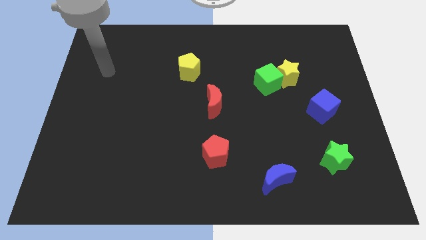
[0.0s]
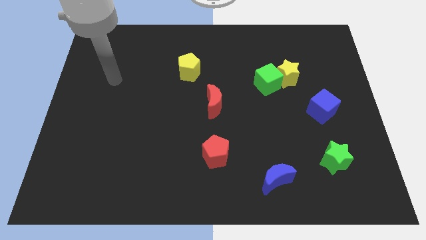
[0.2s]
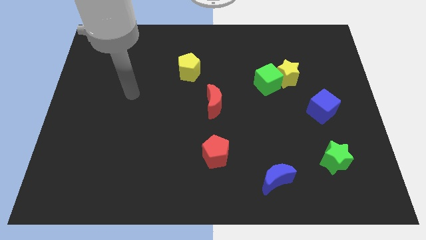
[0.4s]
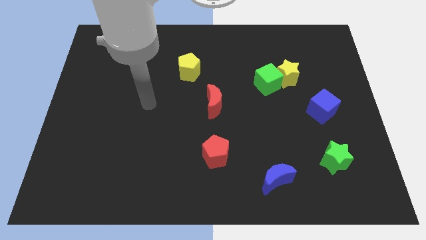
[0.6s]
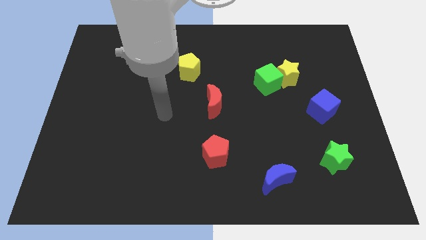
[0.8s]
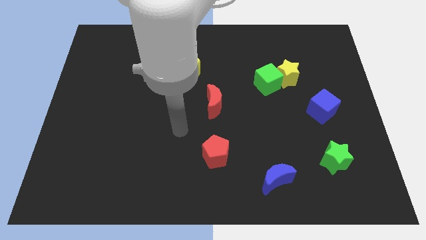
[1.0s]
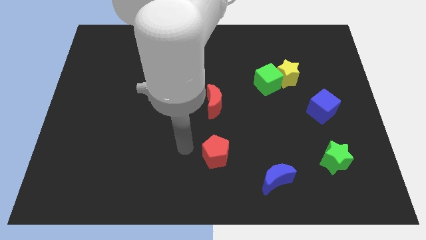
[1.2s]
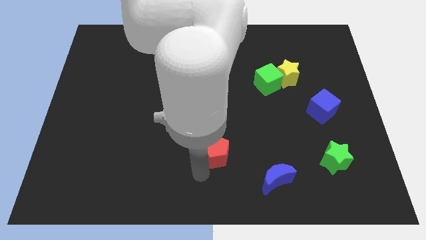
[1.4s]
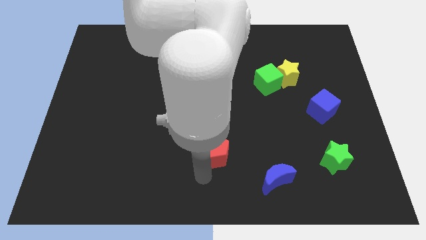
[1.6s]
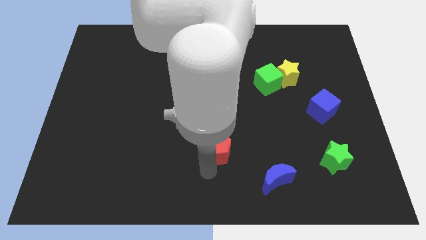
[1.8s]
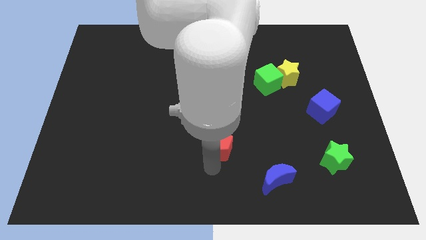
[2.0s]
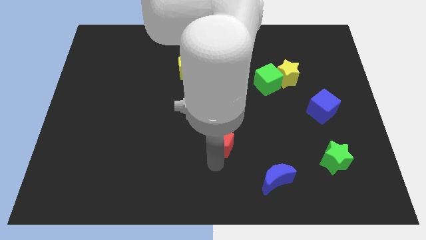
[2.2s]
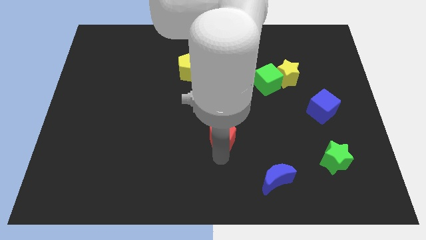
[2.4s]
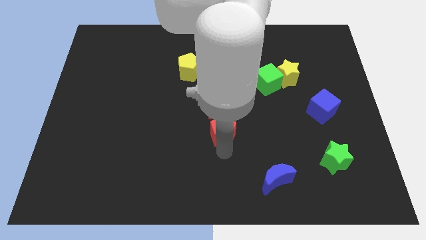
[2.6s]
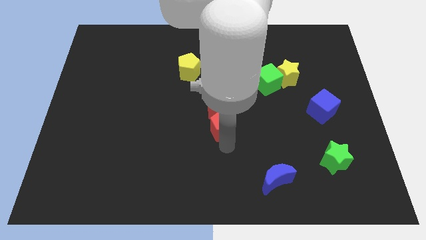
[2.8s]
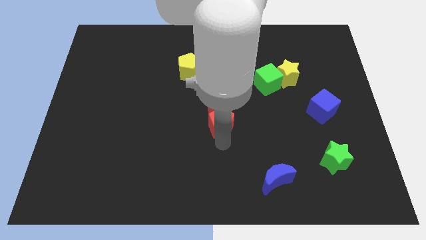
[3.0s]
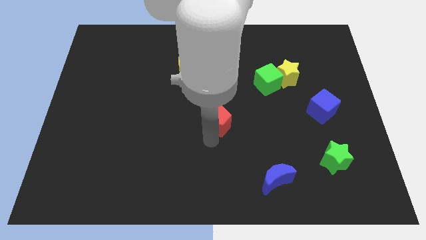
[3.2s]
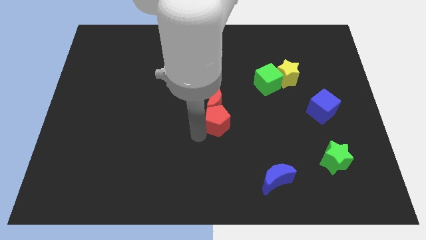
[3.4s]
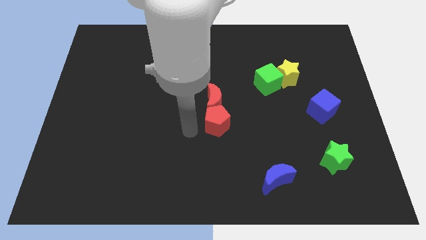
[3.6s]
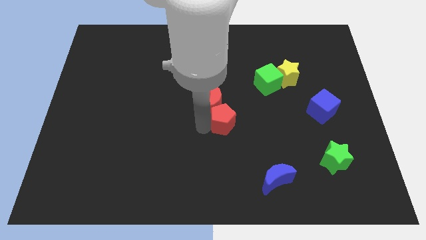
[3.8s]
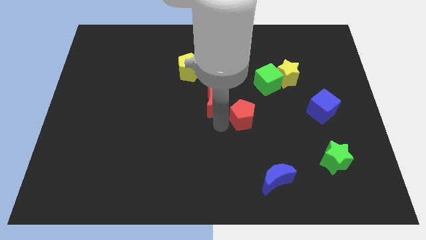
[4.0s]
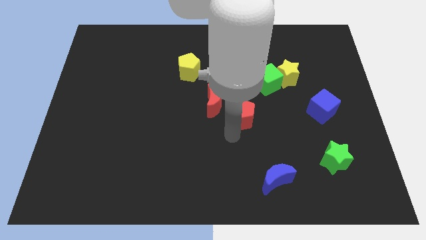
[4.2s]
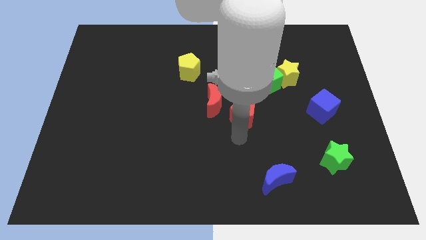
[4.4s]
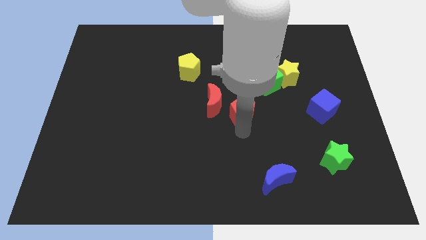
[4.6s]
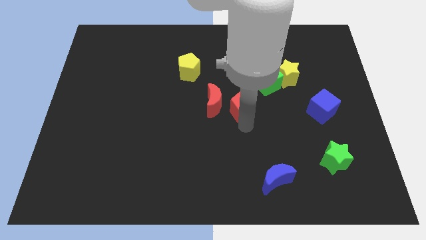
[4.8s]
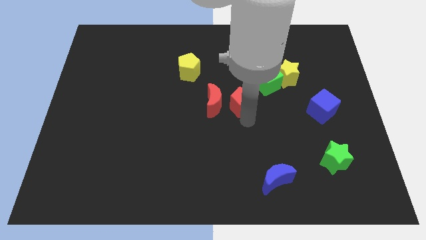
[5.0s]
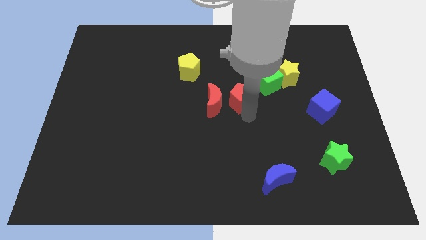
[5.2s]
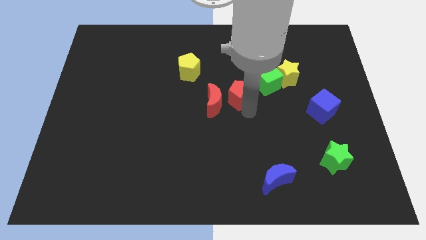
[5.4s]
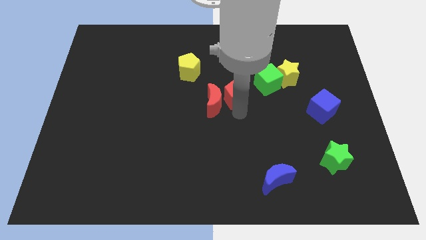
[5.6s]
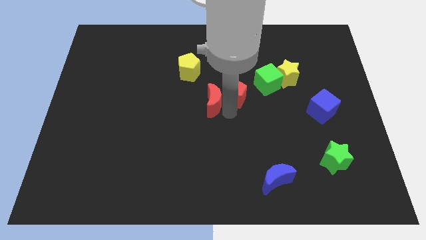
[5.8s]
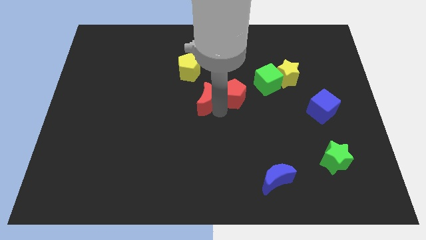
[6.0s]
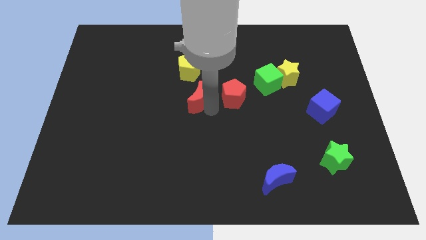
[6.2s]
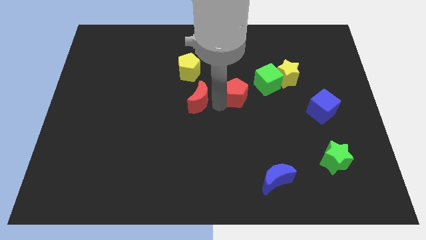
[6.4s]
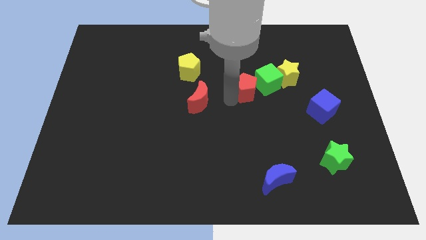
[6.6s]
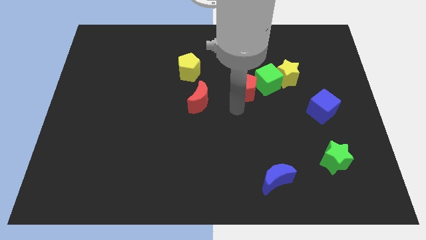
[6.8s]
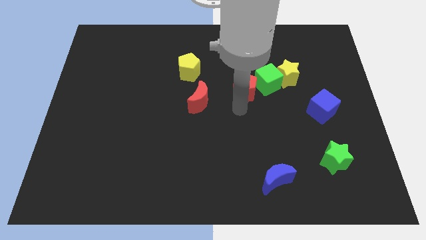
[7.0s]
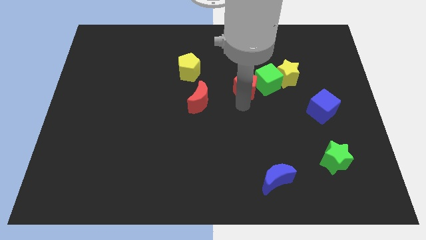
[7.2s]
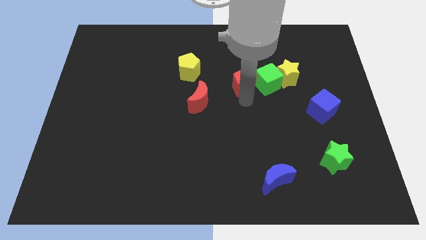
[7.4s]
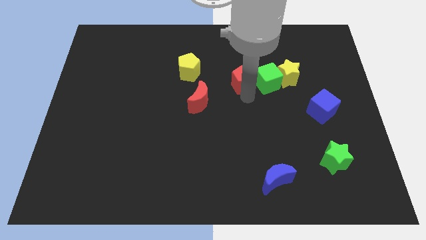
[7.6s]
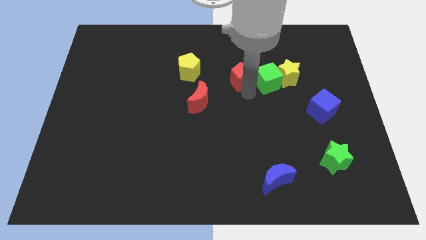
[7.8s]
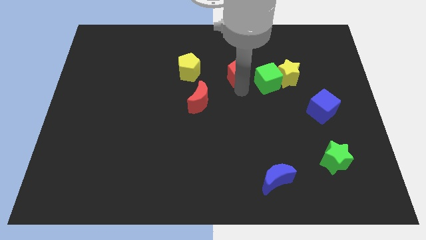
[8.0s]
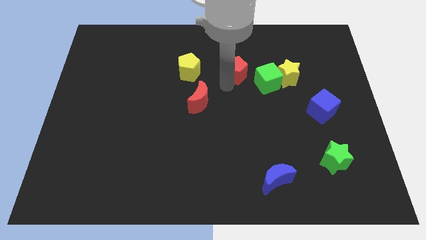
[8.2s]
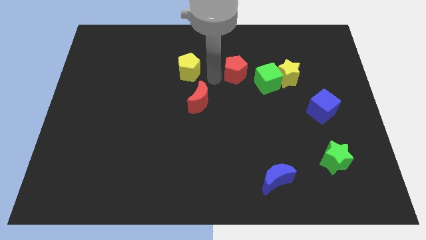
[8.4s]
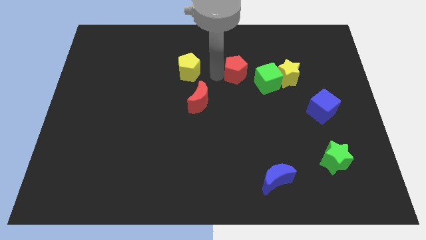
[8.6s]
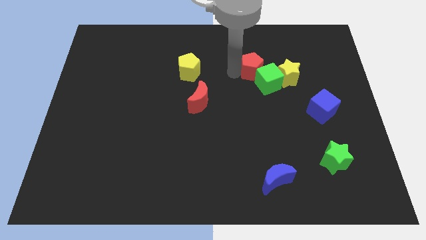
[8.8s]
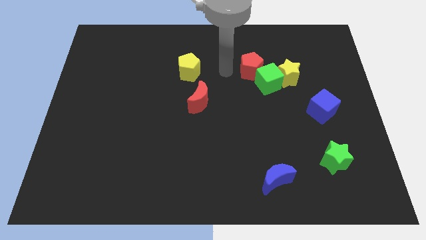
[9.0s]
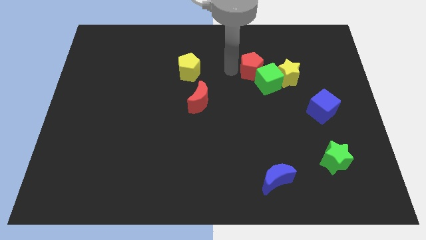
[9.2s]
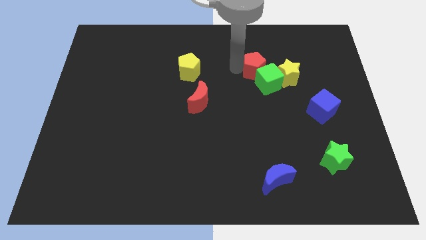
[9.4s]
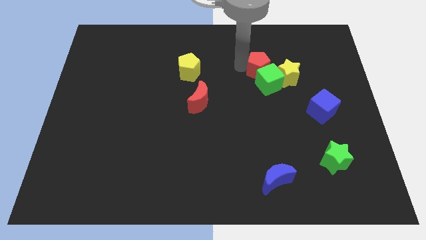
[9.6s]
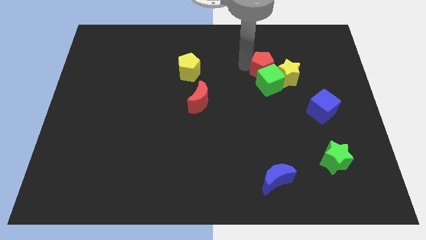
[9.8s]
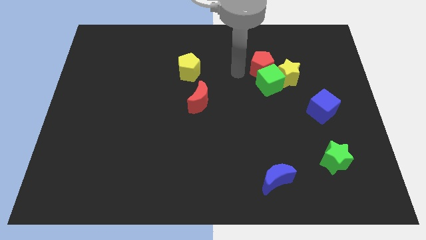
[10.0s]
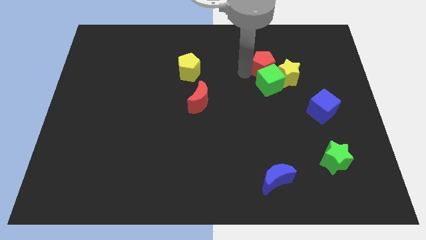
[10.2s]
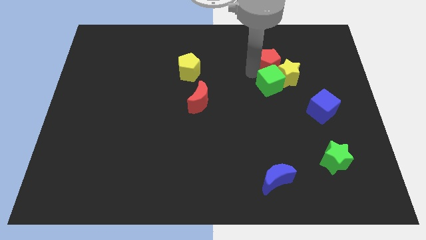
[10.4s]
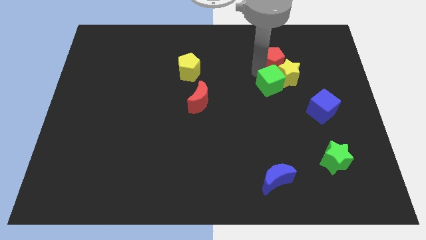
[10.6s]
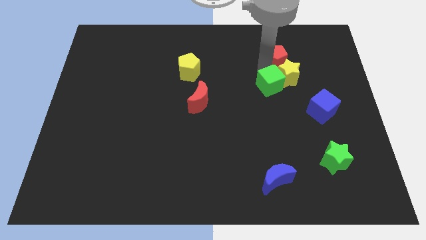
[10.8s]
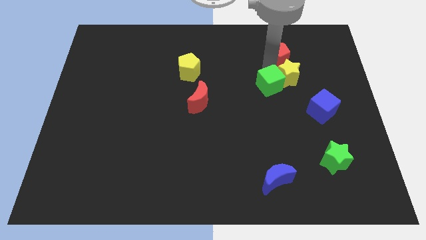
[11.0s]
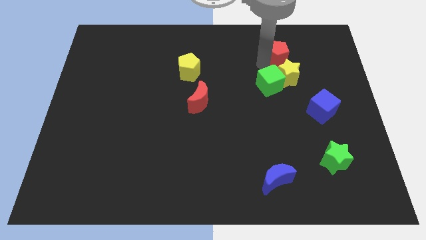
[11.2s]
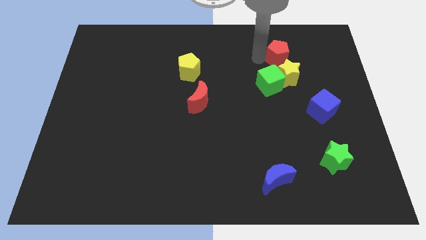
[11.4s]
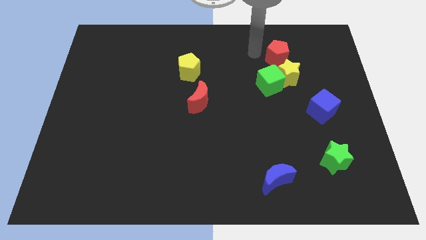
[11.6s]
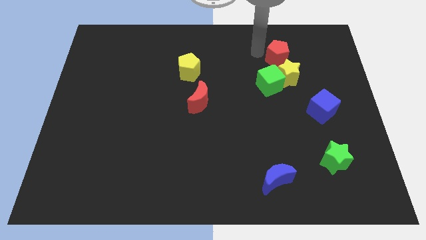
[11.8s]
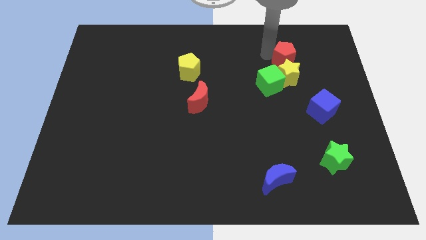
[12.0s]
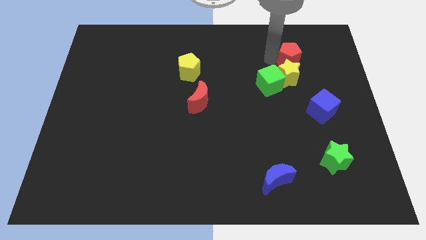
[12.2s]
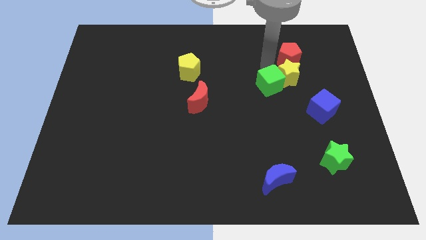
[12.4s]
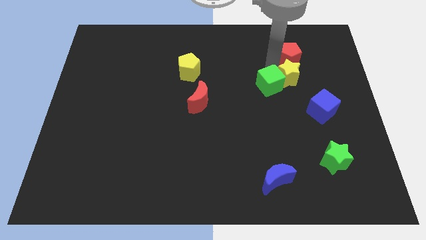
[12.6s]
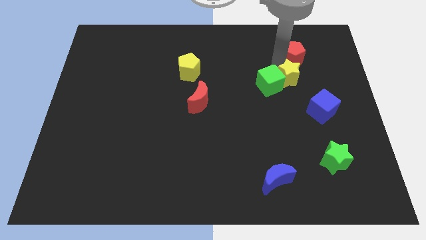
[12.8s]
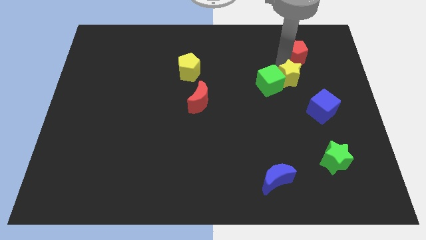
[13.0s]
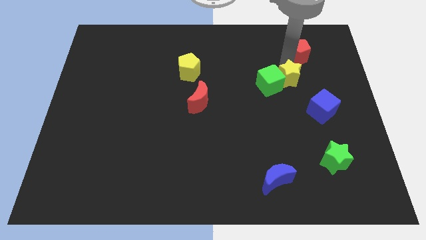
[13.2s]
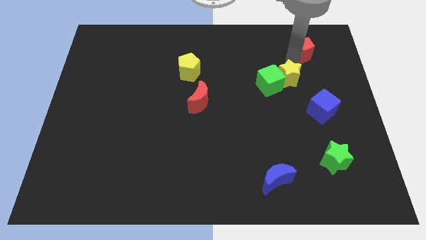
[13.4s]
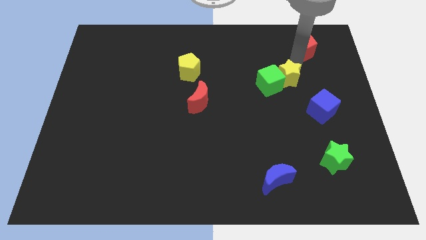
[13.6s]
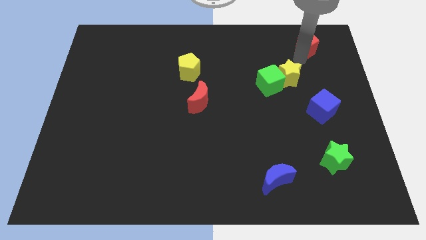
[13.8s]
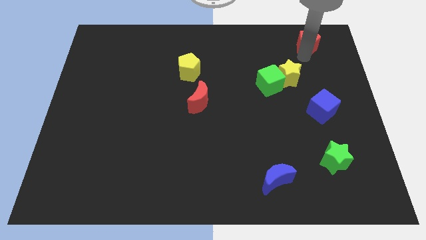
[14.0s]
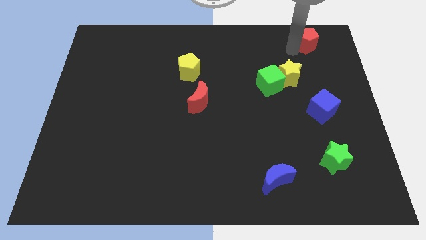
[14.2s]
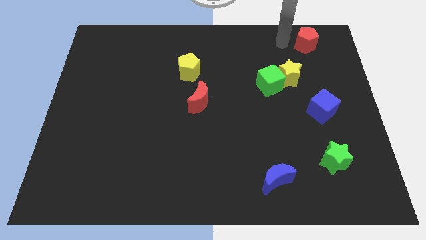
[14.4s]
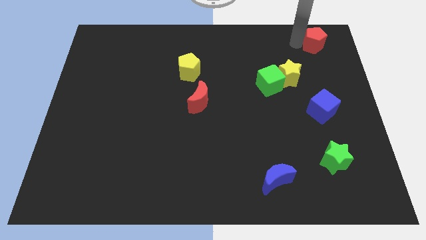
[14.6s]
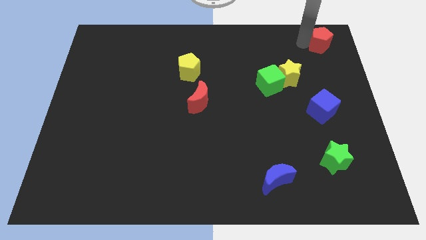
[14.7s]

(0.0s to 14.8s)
push the red pentagon to the top right of the board
